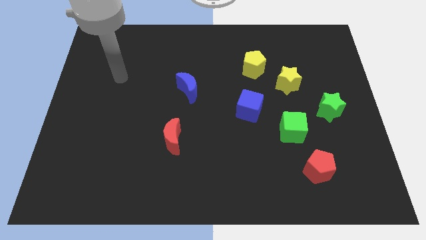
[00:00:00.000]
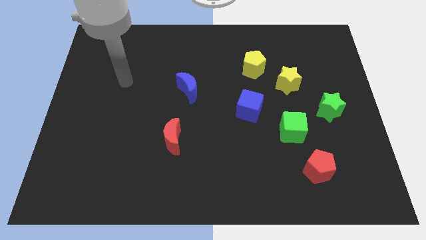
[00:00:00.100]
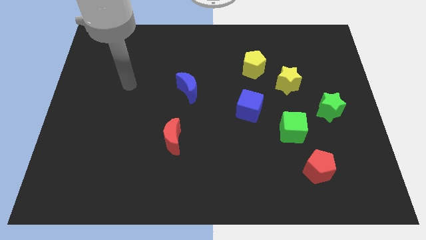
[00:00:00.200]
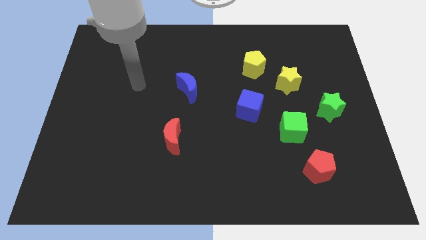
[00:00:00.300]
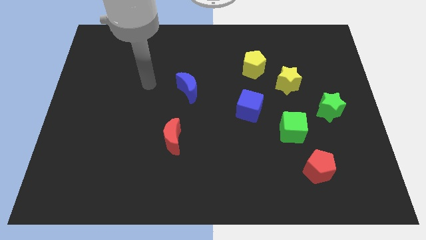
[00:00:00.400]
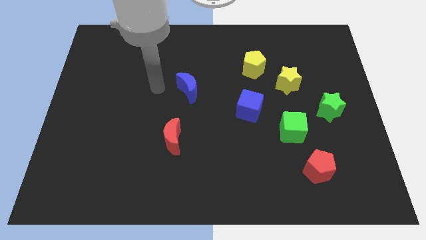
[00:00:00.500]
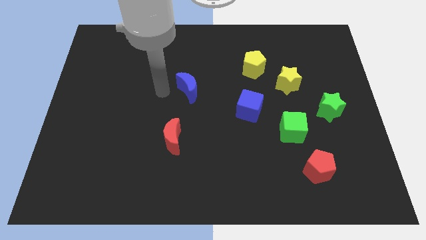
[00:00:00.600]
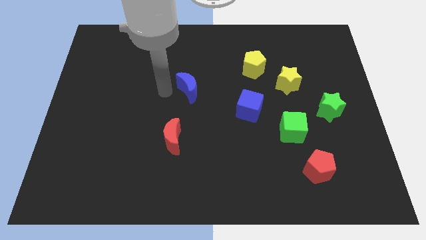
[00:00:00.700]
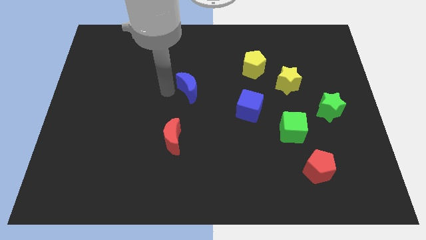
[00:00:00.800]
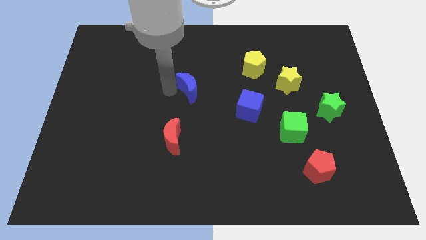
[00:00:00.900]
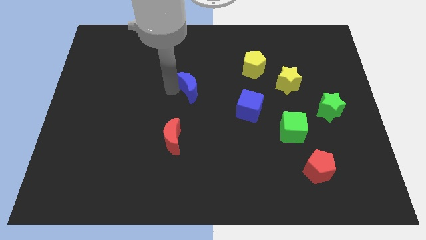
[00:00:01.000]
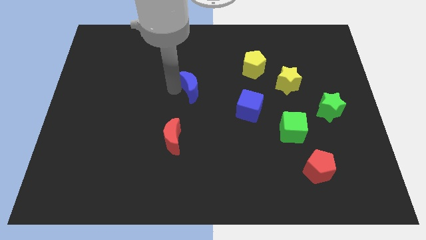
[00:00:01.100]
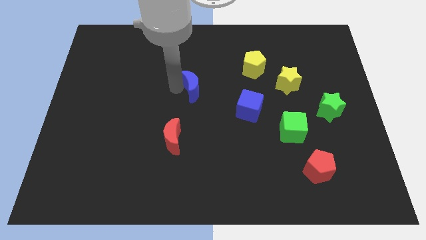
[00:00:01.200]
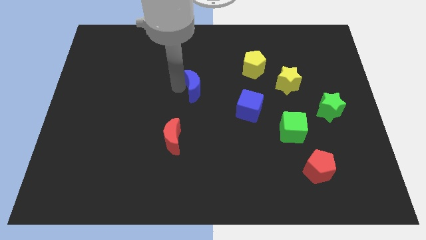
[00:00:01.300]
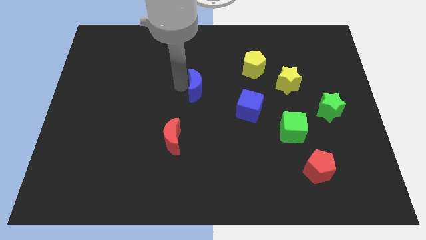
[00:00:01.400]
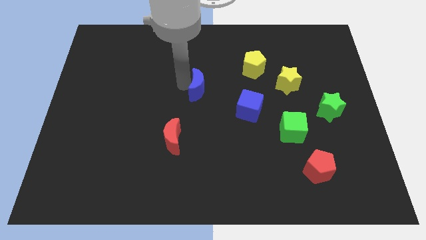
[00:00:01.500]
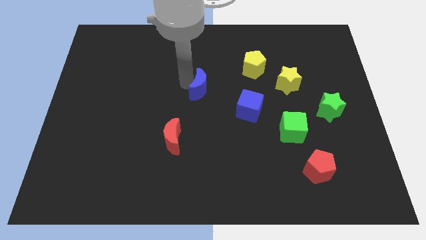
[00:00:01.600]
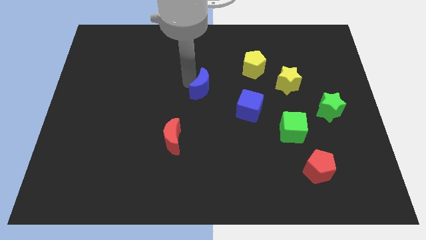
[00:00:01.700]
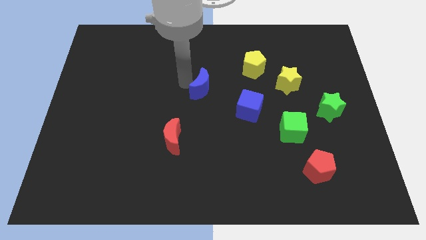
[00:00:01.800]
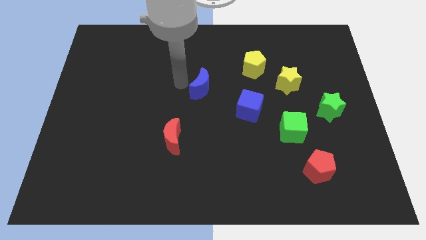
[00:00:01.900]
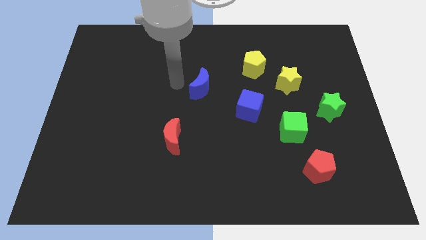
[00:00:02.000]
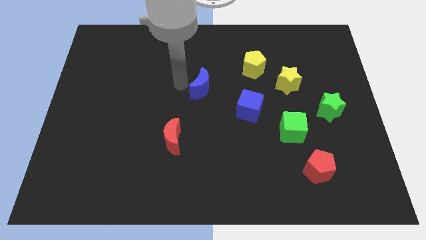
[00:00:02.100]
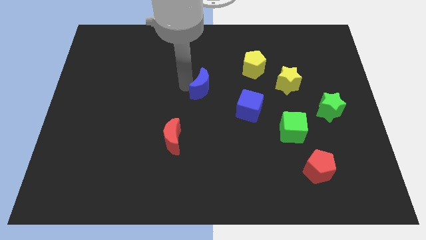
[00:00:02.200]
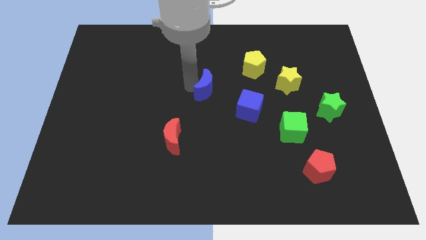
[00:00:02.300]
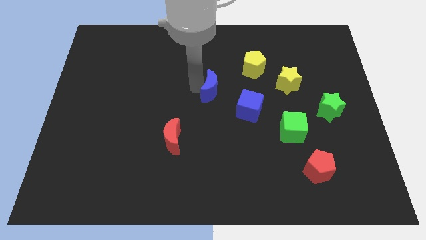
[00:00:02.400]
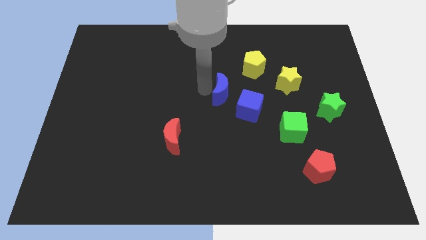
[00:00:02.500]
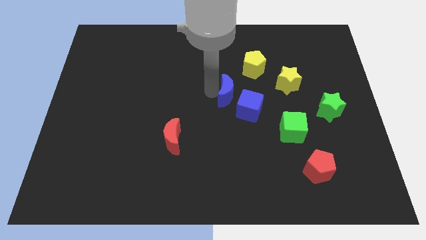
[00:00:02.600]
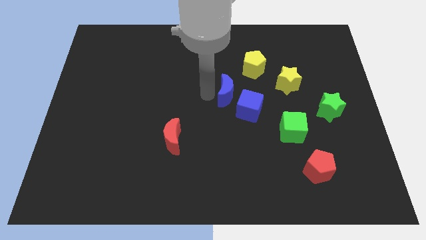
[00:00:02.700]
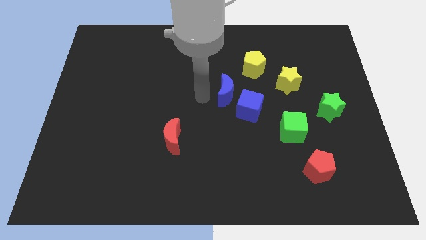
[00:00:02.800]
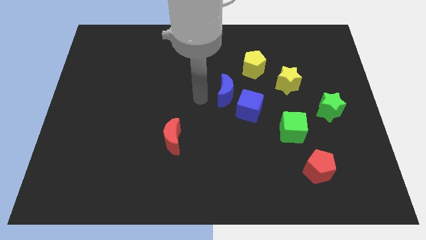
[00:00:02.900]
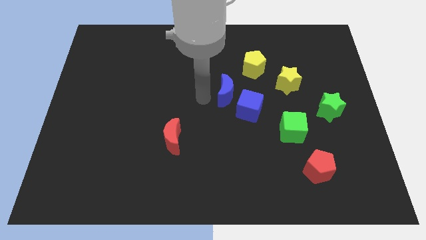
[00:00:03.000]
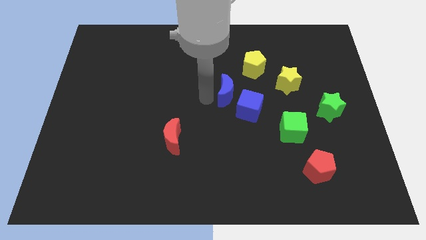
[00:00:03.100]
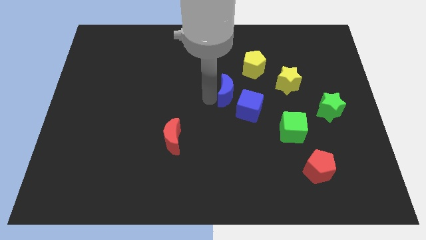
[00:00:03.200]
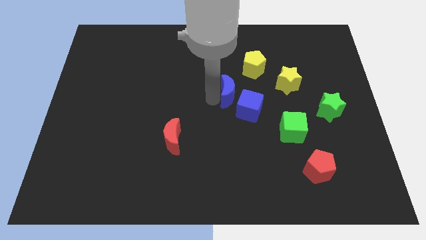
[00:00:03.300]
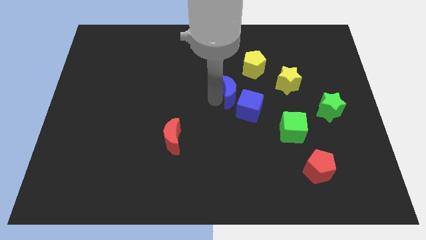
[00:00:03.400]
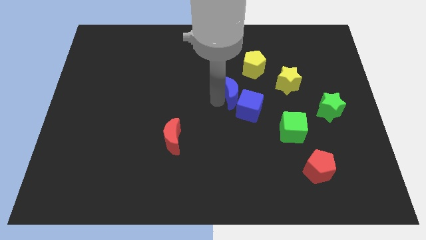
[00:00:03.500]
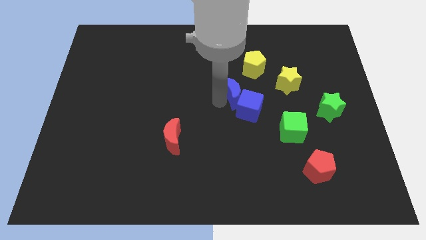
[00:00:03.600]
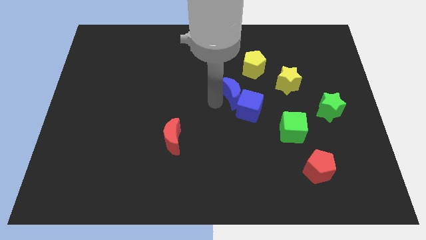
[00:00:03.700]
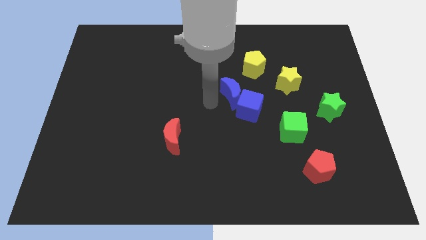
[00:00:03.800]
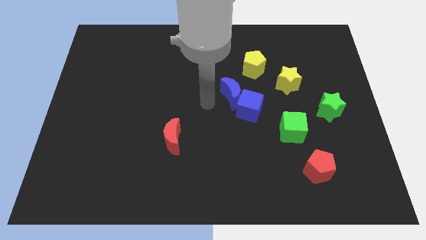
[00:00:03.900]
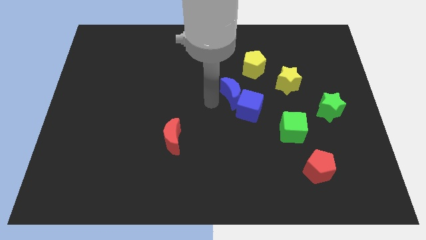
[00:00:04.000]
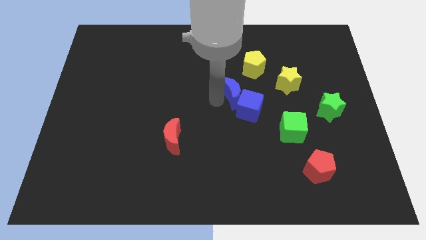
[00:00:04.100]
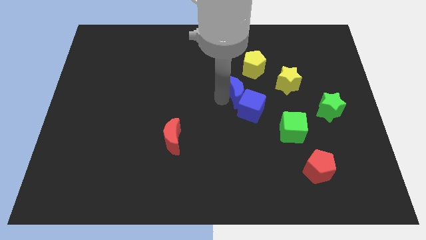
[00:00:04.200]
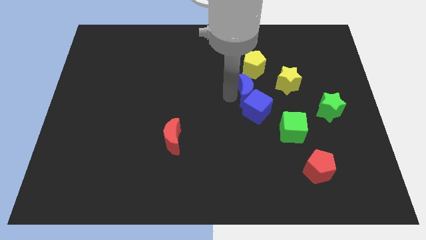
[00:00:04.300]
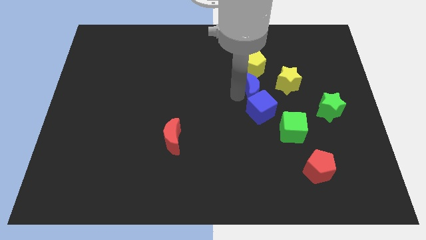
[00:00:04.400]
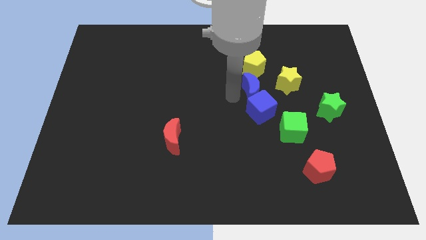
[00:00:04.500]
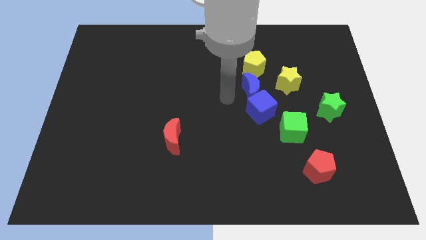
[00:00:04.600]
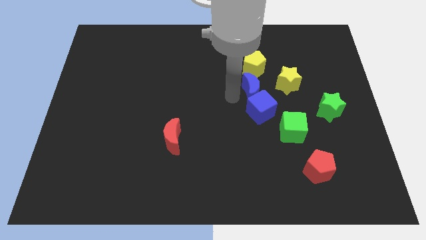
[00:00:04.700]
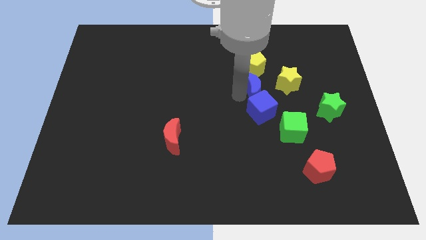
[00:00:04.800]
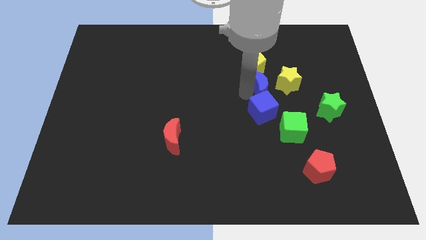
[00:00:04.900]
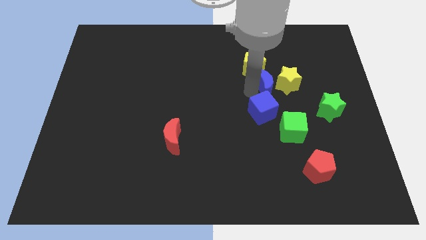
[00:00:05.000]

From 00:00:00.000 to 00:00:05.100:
put the blue moon next to the yellow star

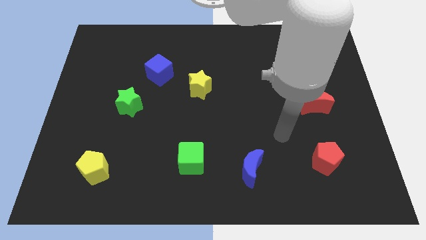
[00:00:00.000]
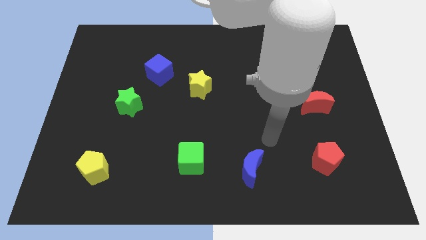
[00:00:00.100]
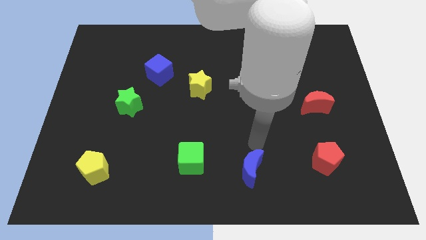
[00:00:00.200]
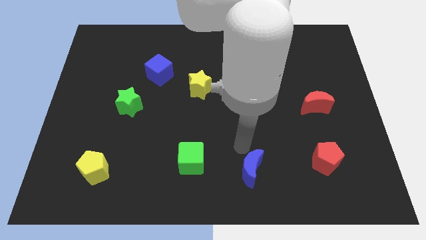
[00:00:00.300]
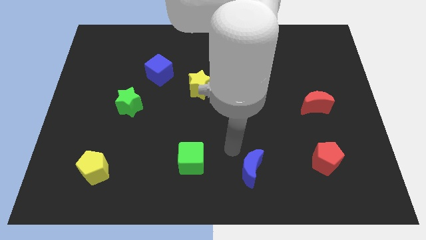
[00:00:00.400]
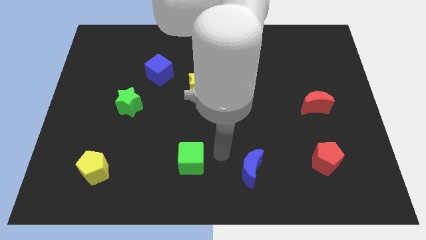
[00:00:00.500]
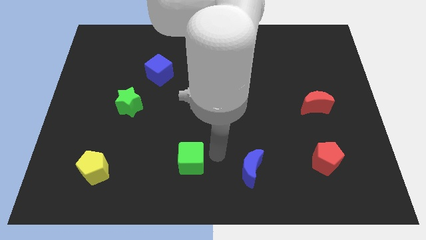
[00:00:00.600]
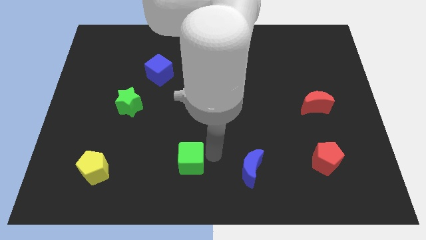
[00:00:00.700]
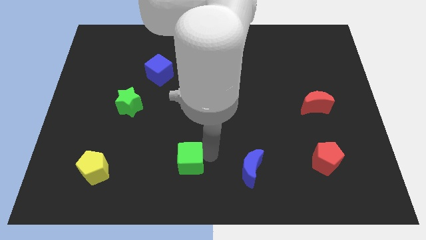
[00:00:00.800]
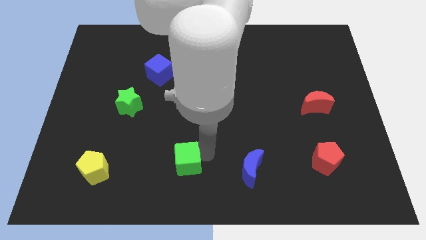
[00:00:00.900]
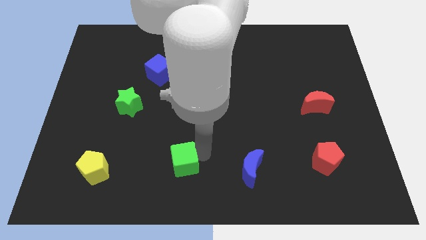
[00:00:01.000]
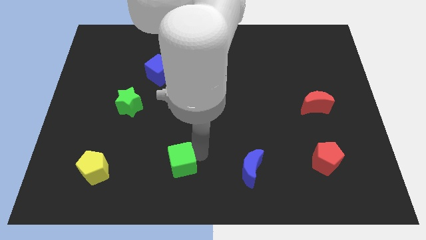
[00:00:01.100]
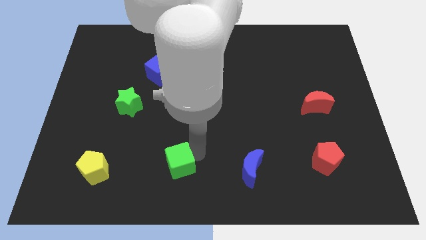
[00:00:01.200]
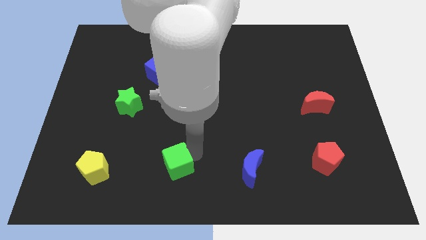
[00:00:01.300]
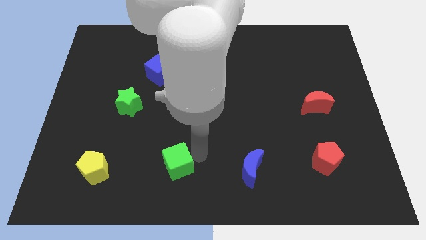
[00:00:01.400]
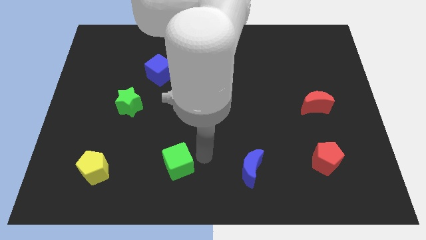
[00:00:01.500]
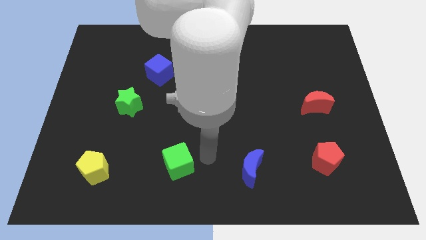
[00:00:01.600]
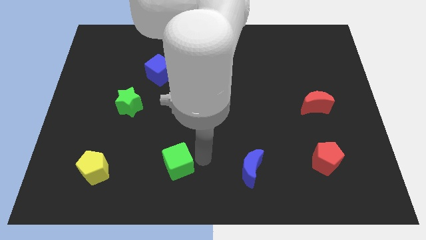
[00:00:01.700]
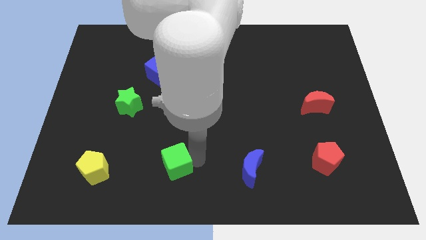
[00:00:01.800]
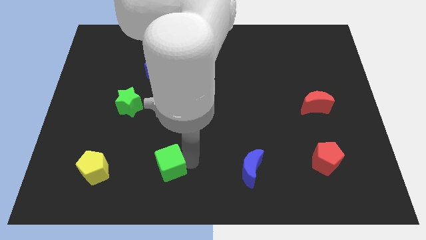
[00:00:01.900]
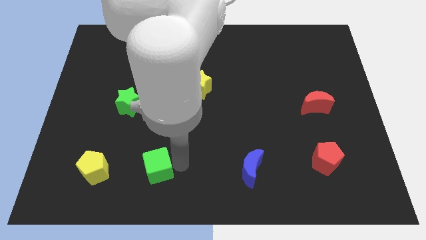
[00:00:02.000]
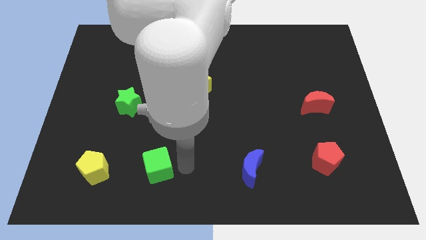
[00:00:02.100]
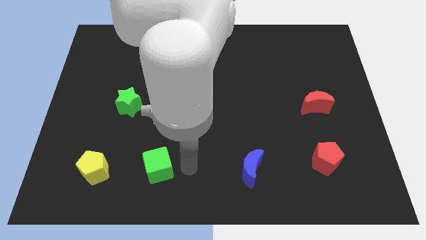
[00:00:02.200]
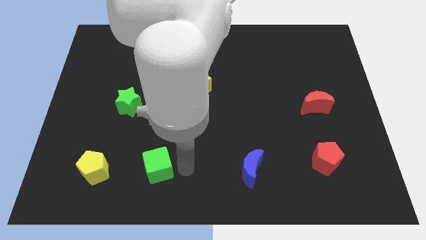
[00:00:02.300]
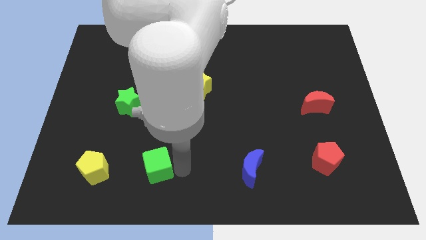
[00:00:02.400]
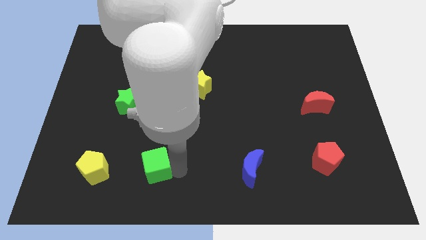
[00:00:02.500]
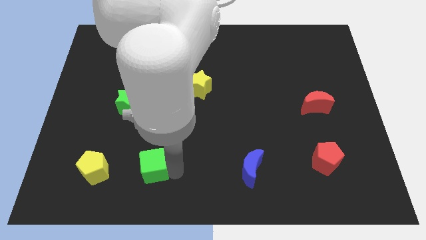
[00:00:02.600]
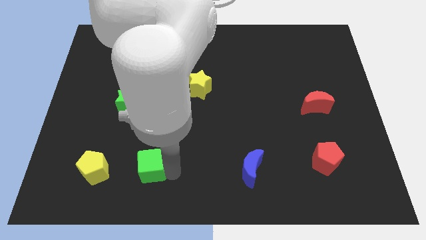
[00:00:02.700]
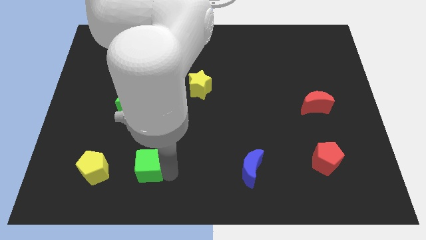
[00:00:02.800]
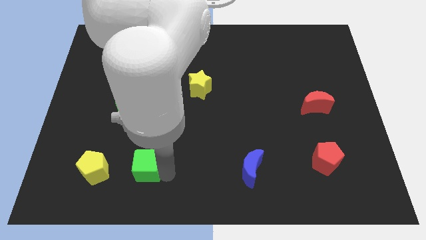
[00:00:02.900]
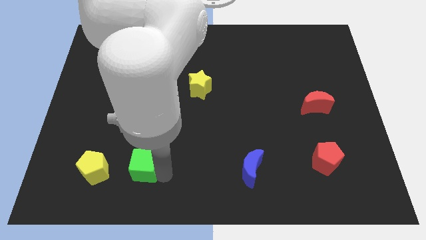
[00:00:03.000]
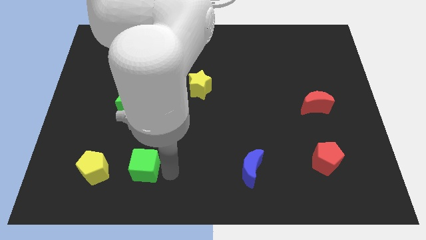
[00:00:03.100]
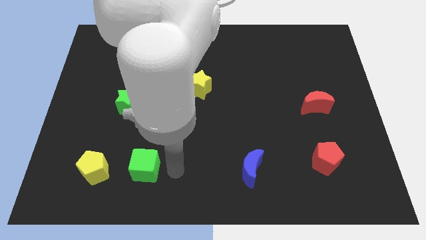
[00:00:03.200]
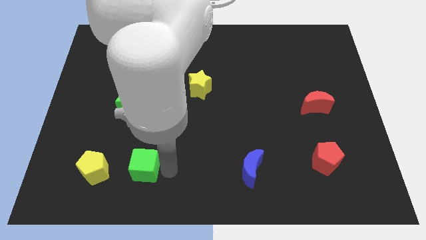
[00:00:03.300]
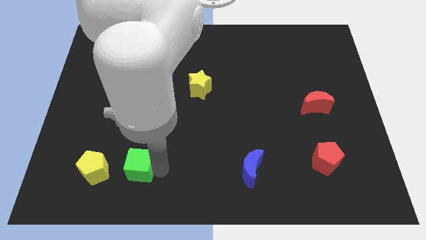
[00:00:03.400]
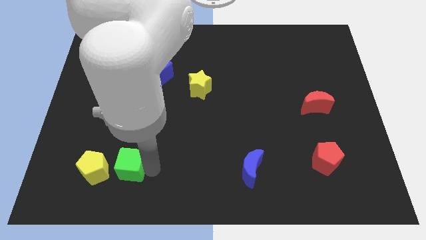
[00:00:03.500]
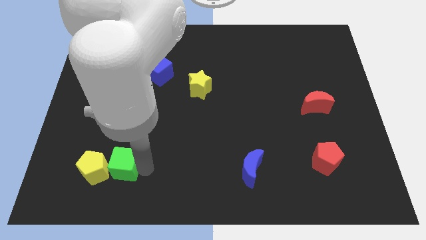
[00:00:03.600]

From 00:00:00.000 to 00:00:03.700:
push the green cube next to the yellow pentagon
